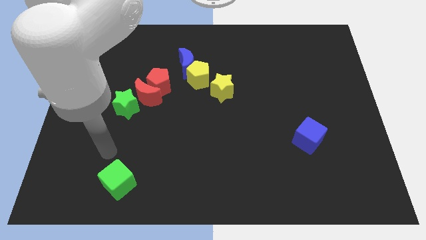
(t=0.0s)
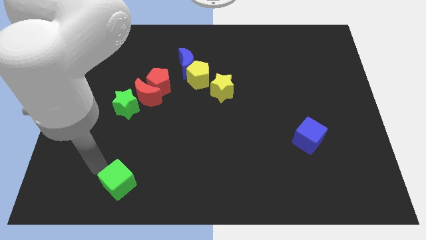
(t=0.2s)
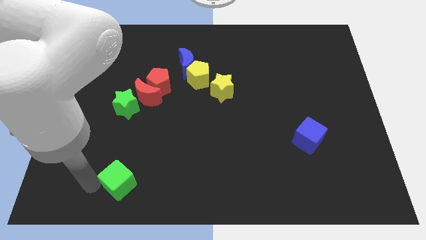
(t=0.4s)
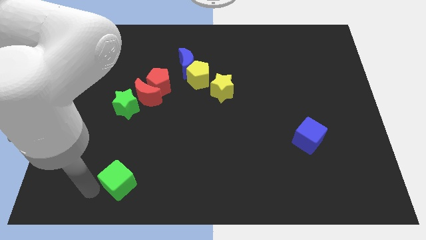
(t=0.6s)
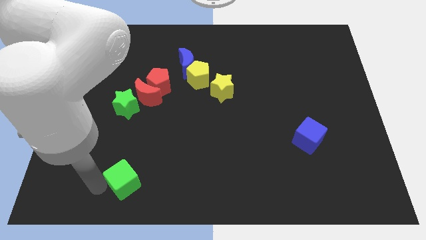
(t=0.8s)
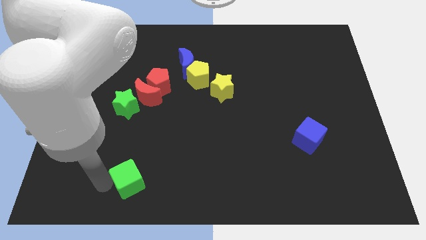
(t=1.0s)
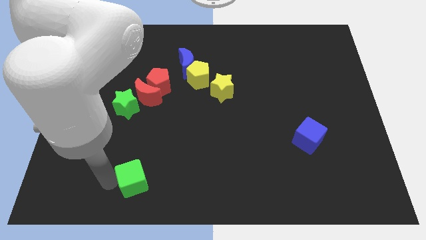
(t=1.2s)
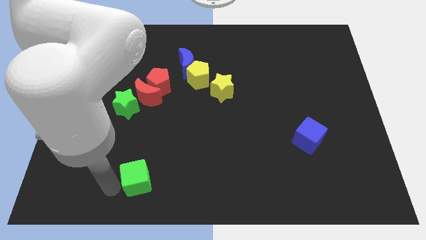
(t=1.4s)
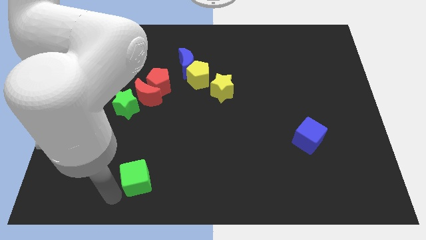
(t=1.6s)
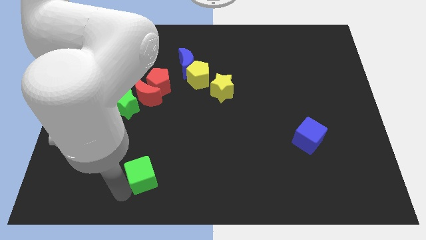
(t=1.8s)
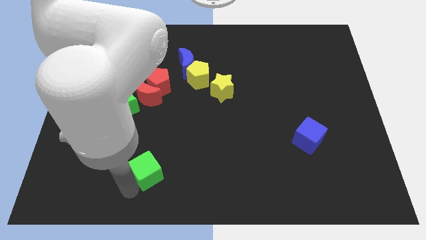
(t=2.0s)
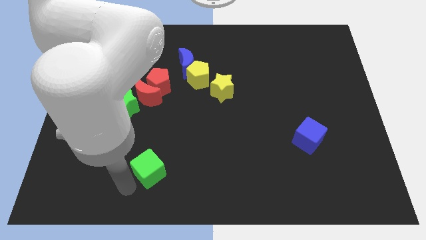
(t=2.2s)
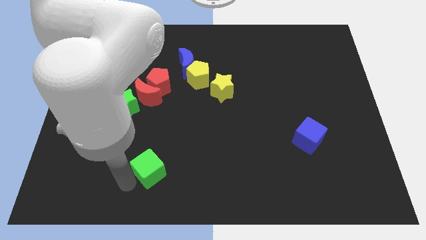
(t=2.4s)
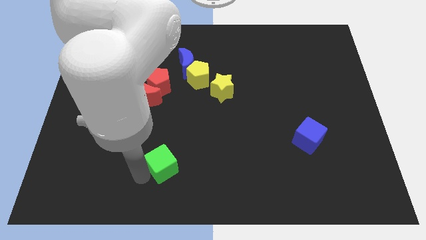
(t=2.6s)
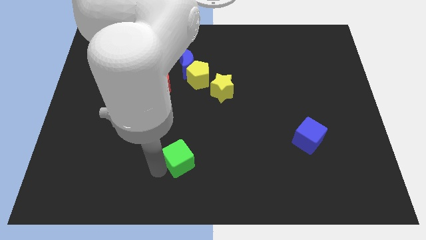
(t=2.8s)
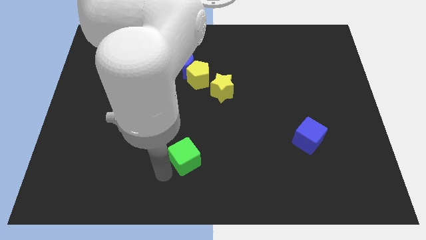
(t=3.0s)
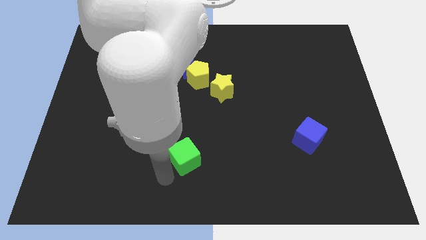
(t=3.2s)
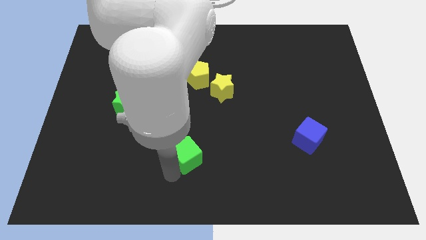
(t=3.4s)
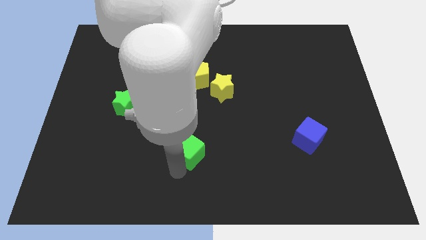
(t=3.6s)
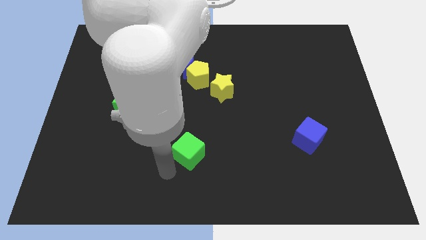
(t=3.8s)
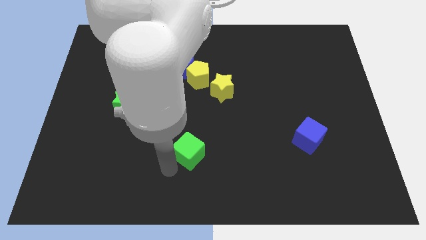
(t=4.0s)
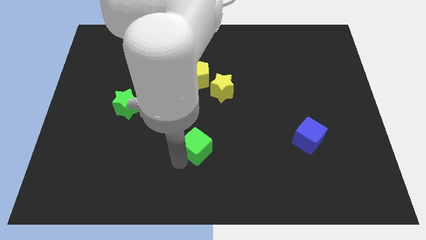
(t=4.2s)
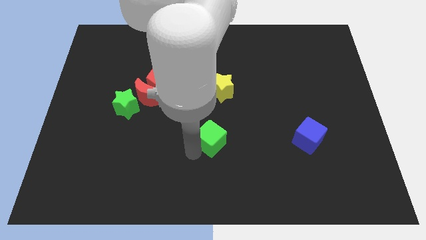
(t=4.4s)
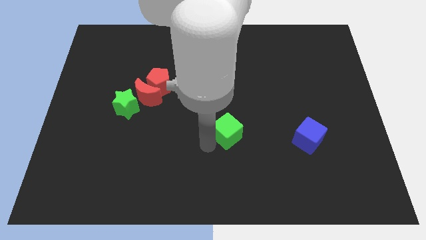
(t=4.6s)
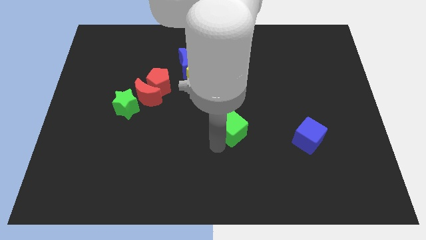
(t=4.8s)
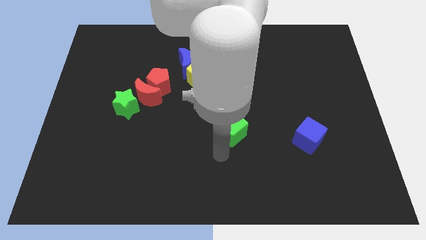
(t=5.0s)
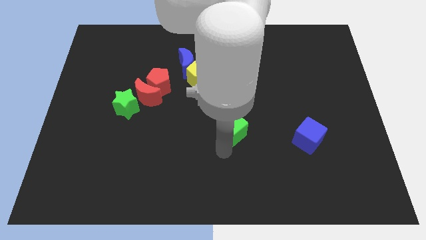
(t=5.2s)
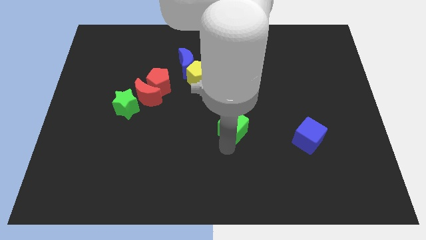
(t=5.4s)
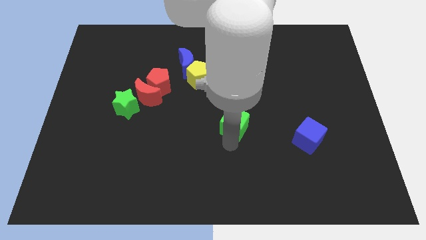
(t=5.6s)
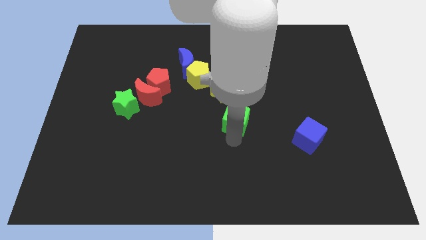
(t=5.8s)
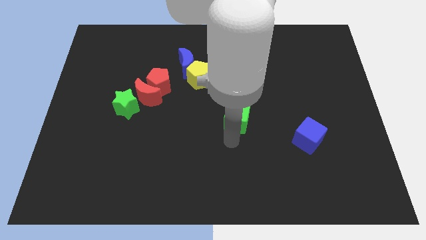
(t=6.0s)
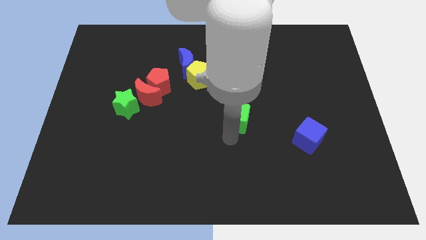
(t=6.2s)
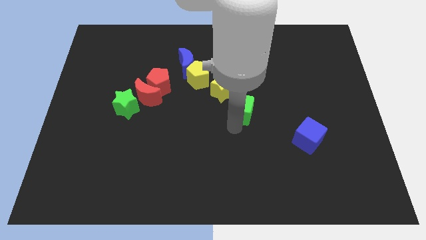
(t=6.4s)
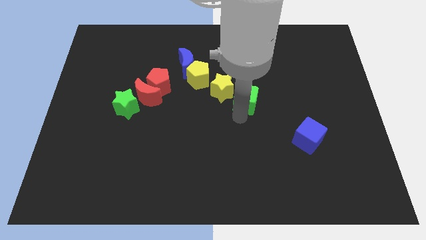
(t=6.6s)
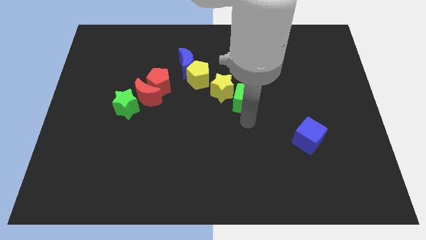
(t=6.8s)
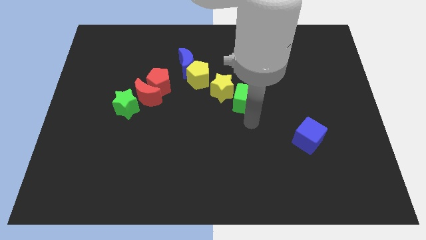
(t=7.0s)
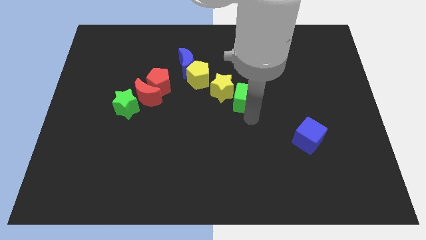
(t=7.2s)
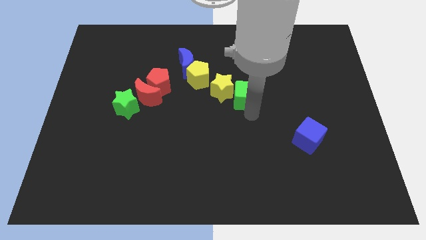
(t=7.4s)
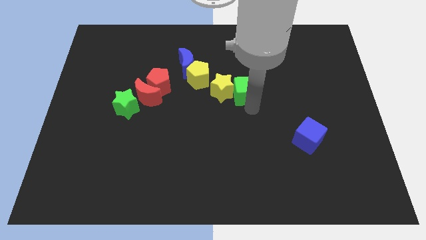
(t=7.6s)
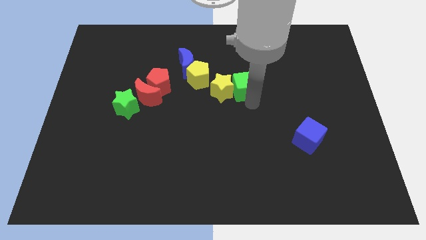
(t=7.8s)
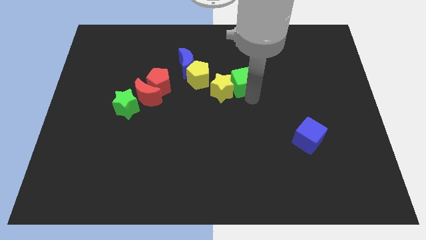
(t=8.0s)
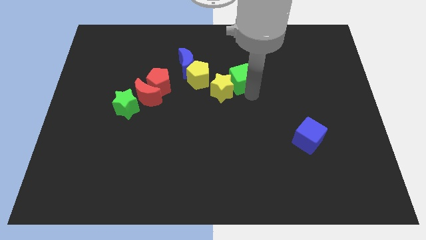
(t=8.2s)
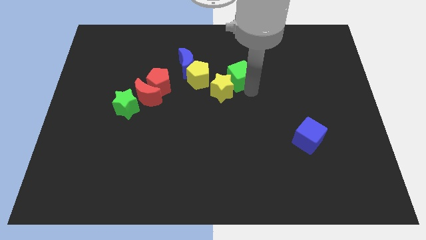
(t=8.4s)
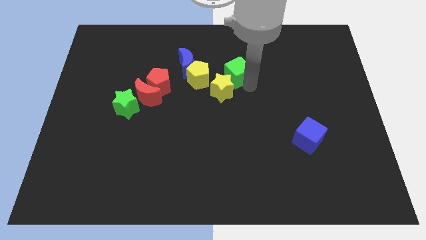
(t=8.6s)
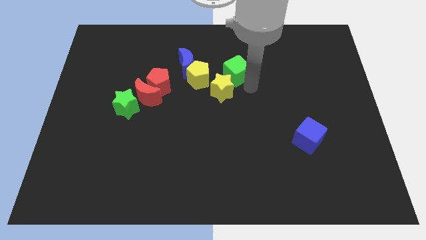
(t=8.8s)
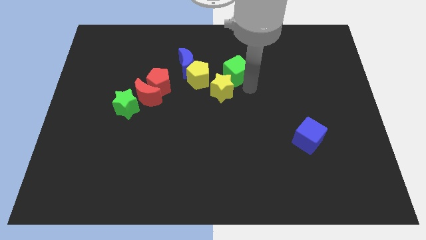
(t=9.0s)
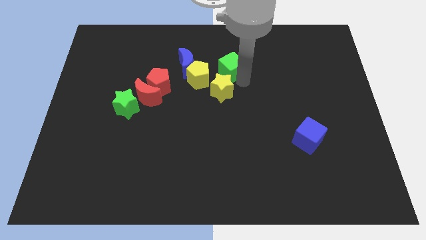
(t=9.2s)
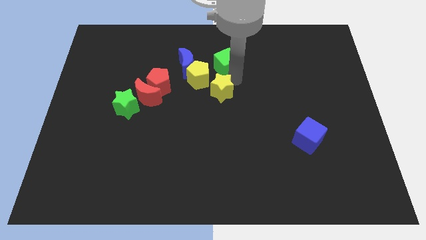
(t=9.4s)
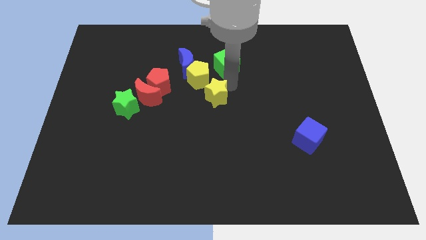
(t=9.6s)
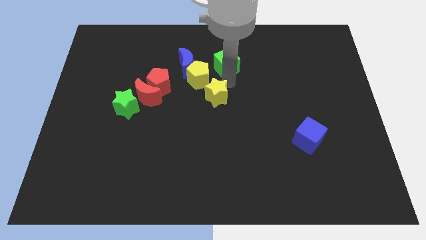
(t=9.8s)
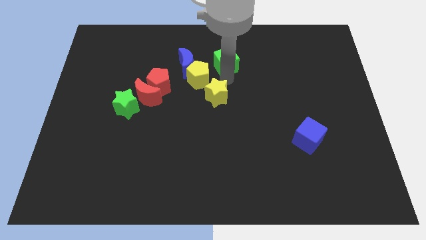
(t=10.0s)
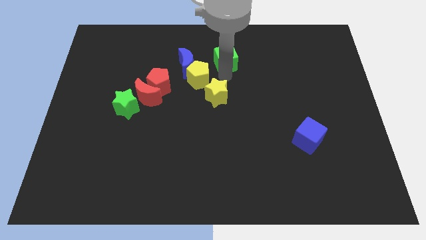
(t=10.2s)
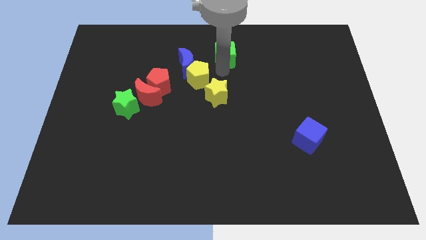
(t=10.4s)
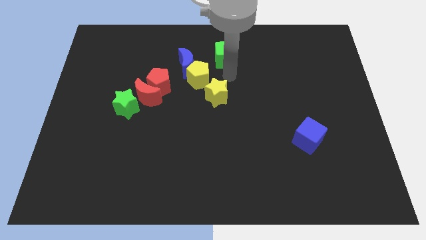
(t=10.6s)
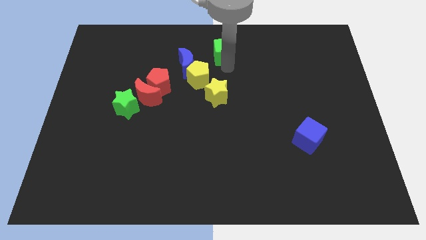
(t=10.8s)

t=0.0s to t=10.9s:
push the green cube to the towards your base

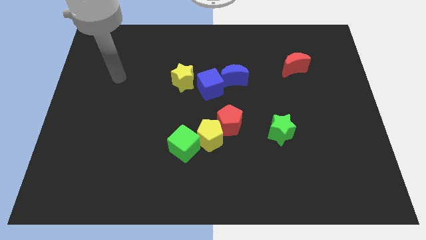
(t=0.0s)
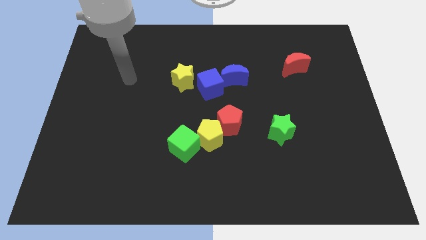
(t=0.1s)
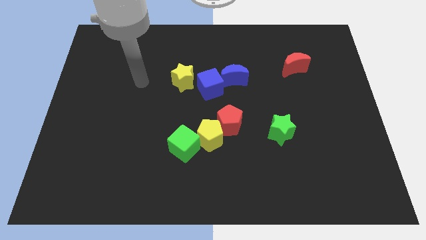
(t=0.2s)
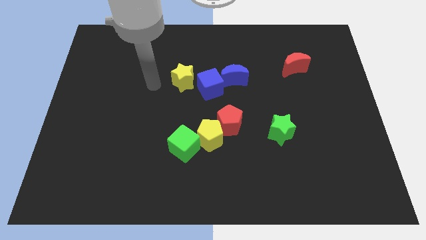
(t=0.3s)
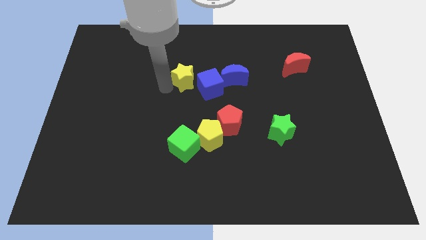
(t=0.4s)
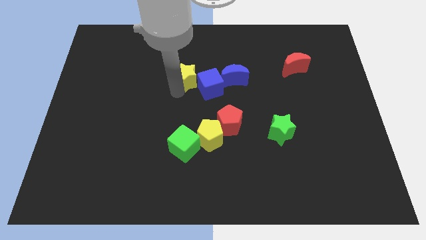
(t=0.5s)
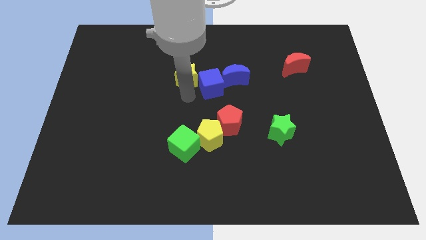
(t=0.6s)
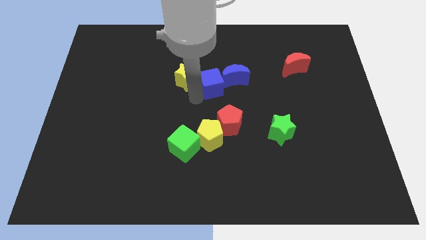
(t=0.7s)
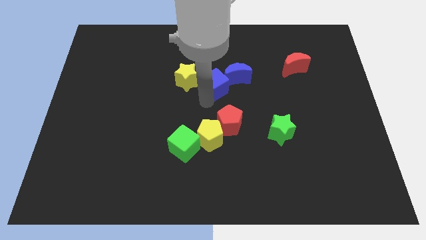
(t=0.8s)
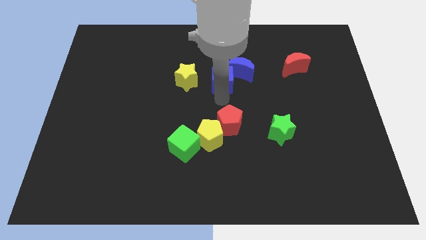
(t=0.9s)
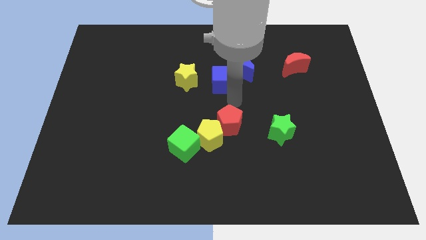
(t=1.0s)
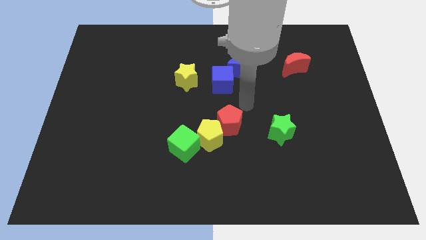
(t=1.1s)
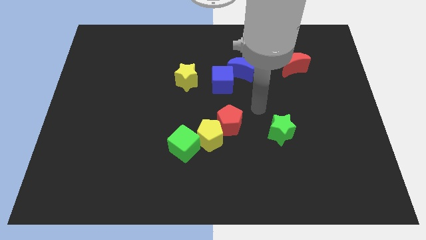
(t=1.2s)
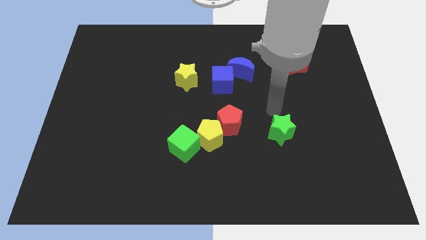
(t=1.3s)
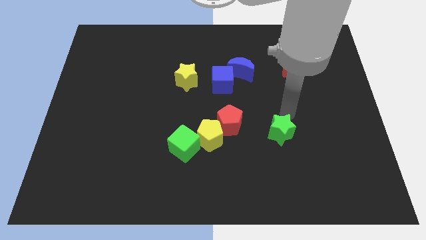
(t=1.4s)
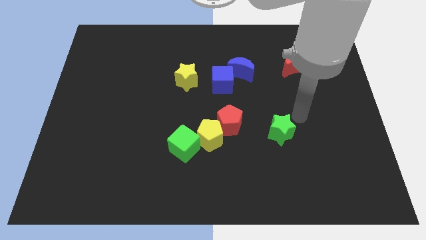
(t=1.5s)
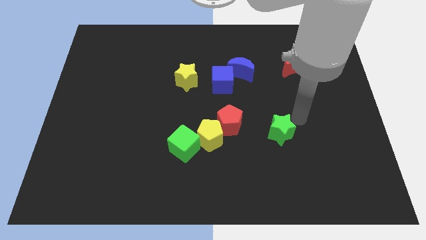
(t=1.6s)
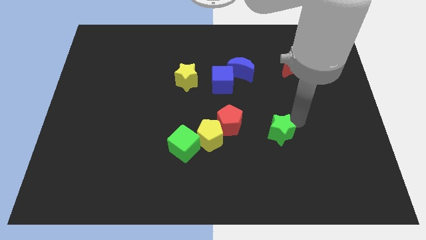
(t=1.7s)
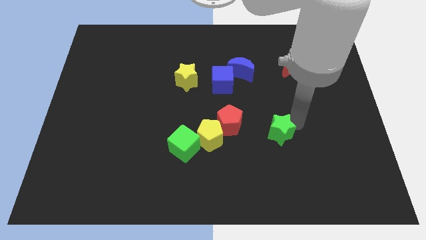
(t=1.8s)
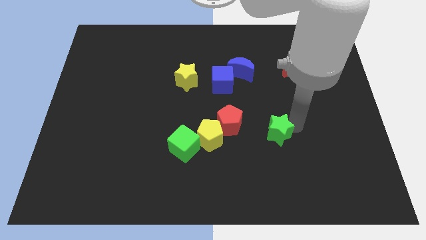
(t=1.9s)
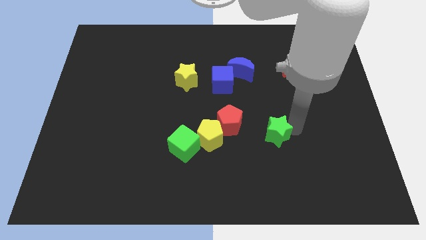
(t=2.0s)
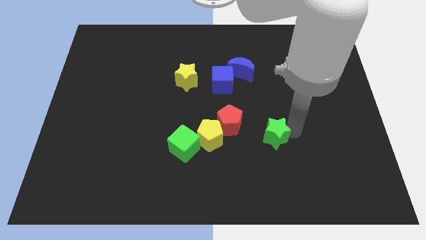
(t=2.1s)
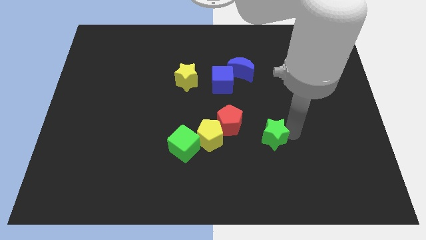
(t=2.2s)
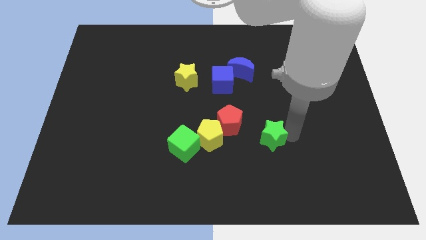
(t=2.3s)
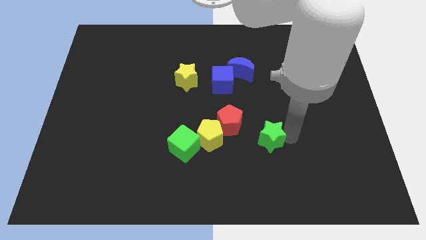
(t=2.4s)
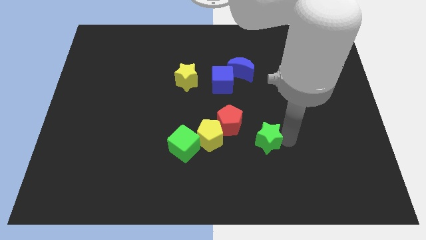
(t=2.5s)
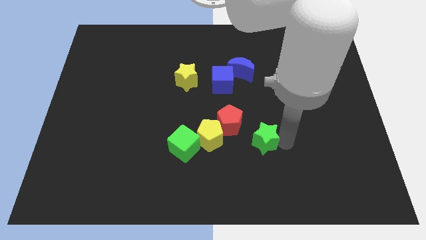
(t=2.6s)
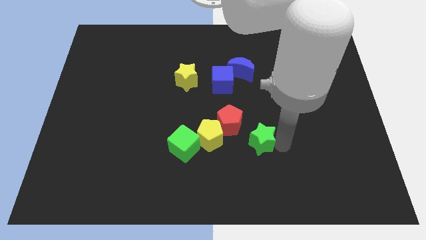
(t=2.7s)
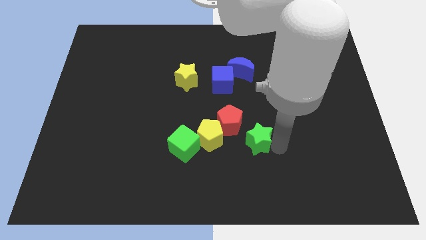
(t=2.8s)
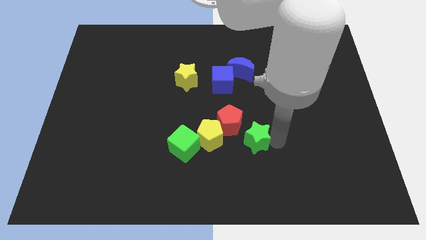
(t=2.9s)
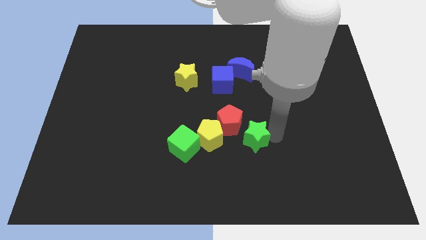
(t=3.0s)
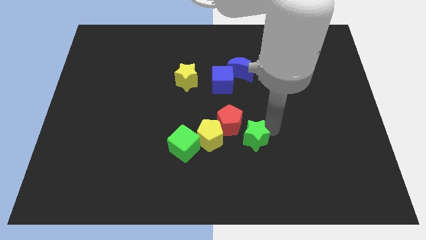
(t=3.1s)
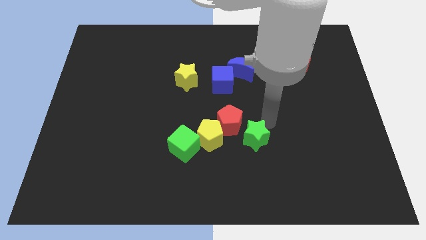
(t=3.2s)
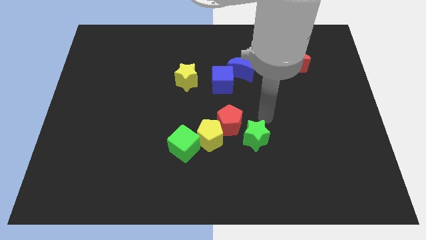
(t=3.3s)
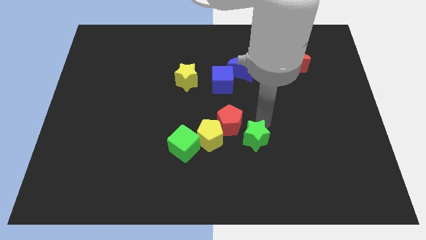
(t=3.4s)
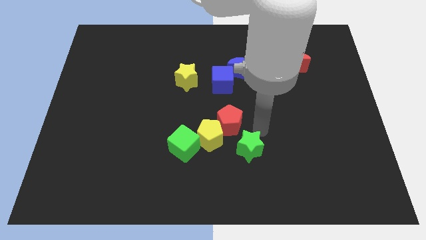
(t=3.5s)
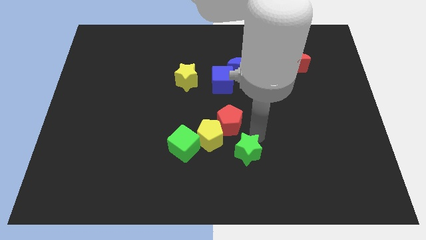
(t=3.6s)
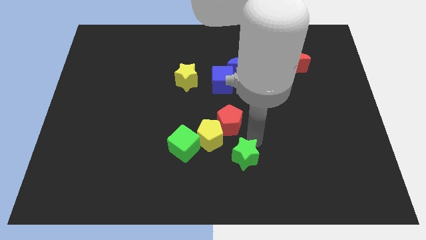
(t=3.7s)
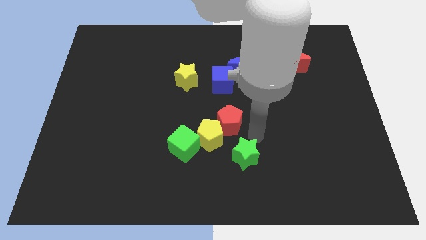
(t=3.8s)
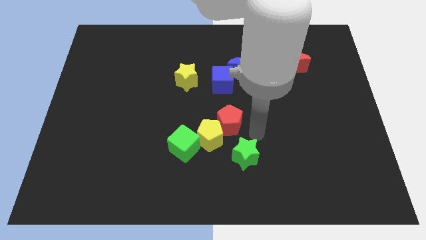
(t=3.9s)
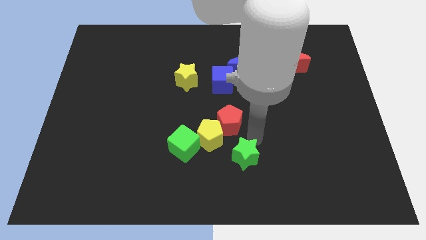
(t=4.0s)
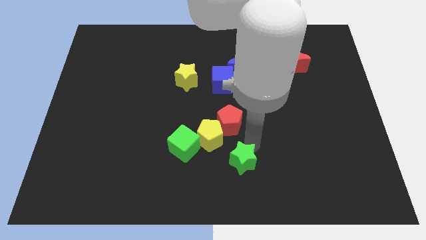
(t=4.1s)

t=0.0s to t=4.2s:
put the green star to the bottom
